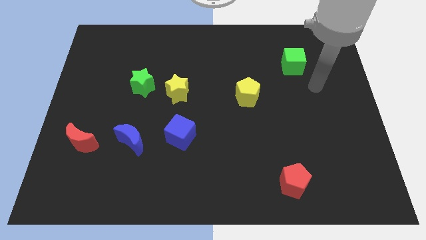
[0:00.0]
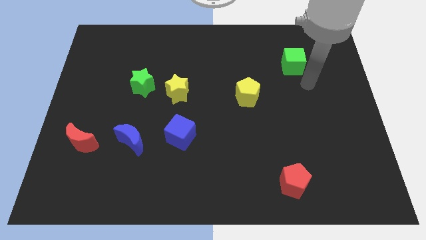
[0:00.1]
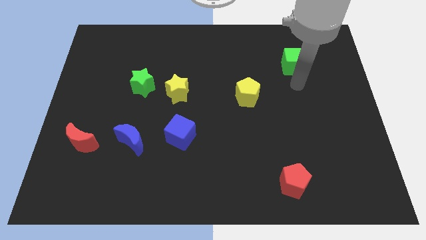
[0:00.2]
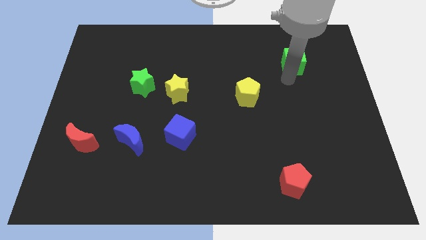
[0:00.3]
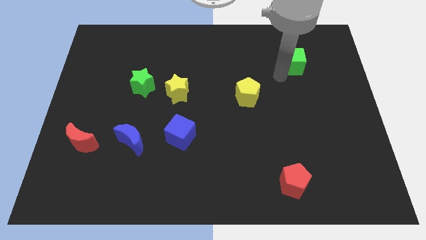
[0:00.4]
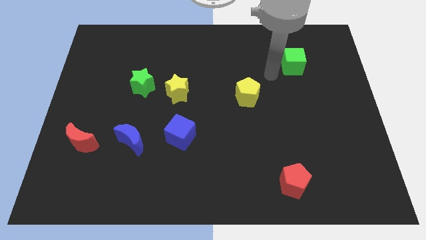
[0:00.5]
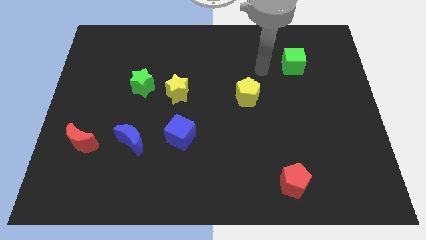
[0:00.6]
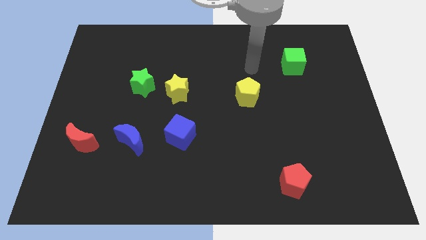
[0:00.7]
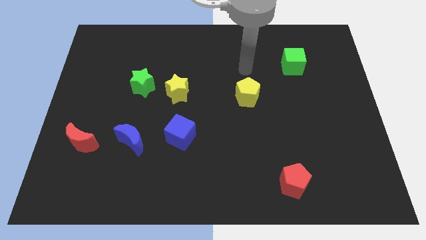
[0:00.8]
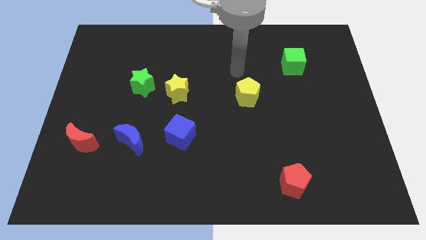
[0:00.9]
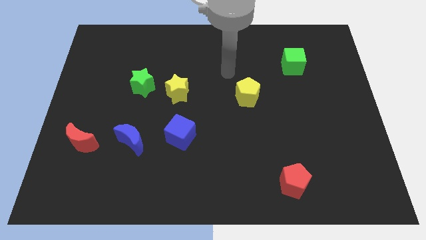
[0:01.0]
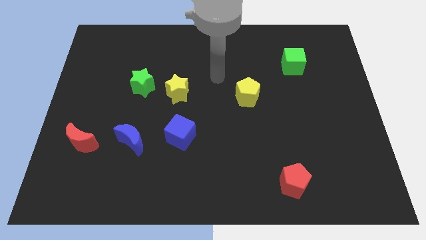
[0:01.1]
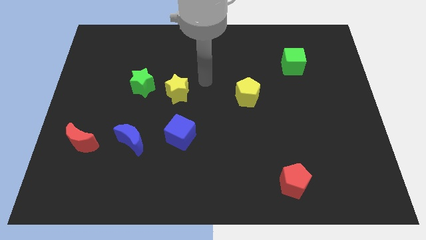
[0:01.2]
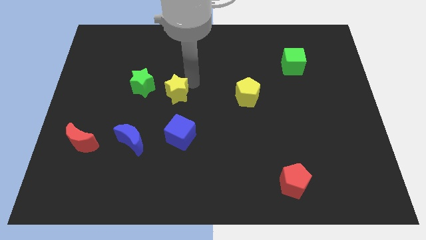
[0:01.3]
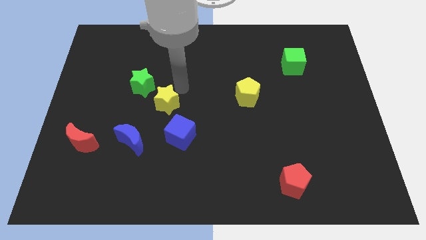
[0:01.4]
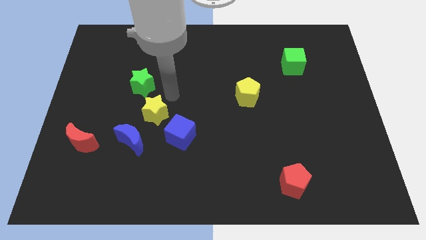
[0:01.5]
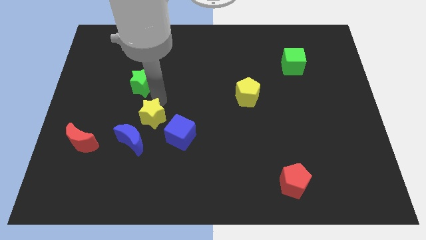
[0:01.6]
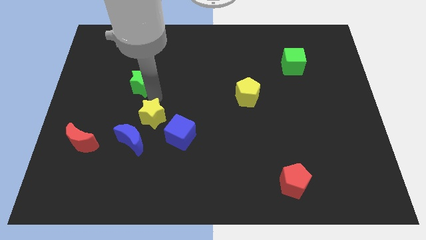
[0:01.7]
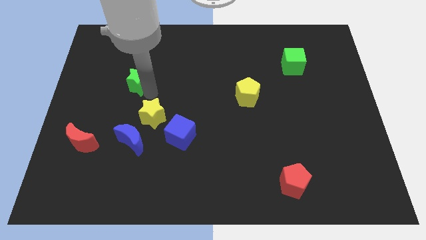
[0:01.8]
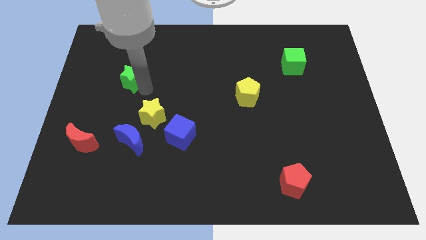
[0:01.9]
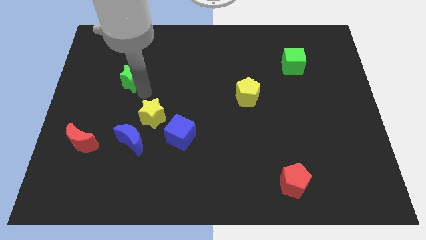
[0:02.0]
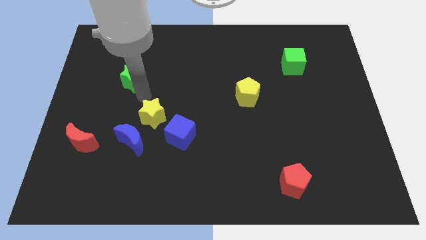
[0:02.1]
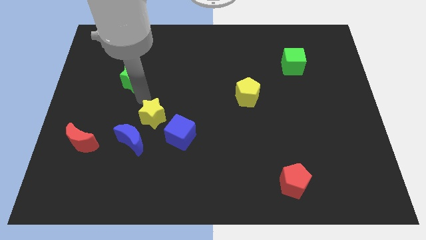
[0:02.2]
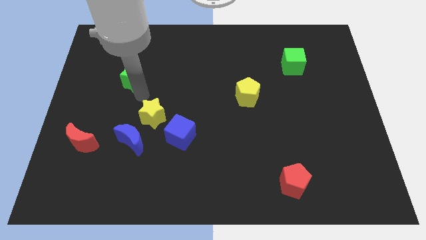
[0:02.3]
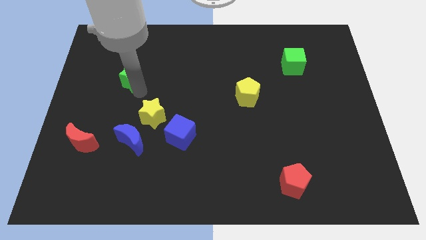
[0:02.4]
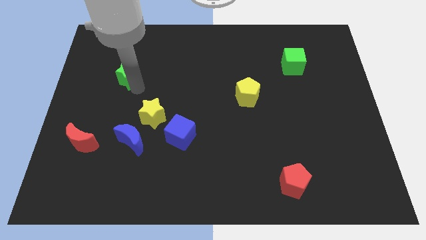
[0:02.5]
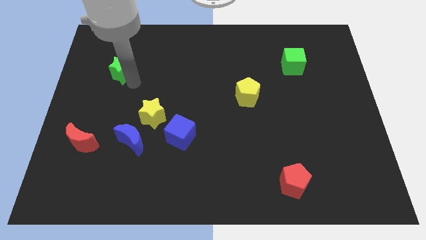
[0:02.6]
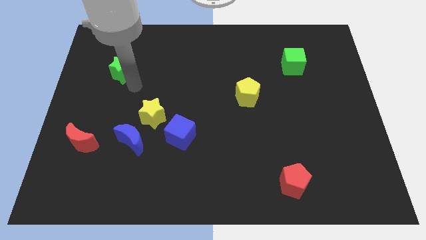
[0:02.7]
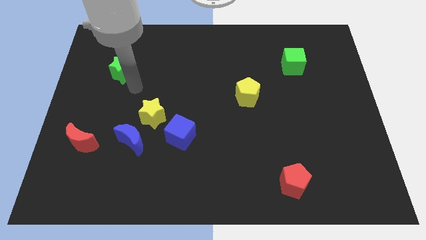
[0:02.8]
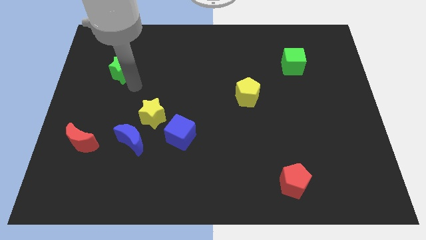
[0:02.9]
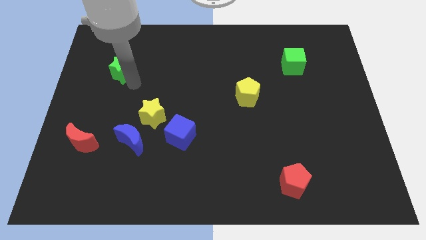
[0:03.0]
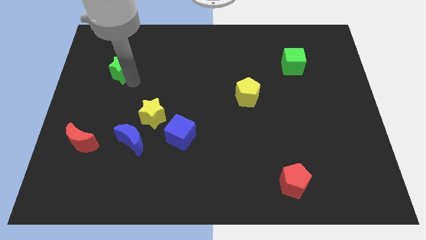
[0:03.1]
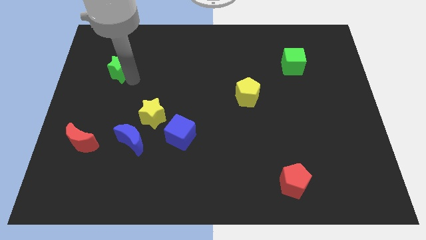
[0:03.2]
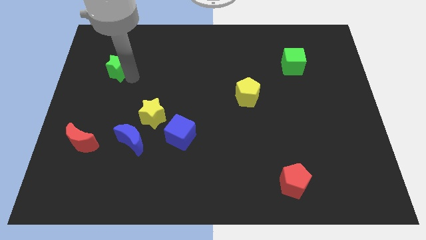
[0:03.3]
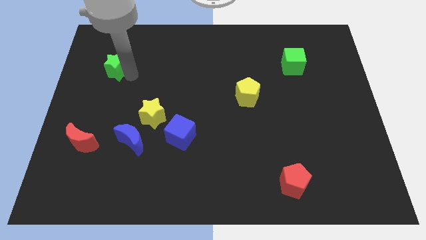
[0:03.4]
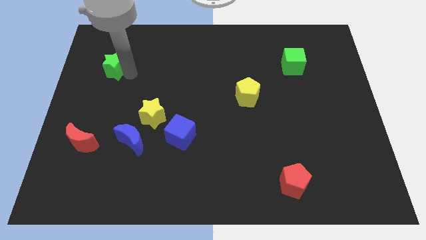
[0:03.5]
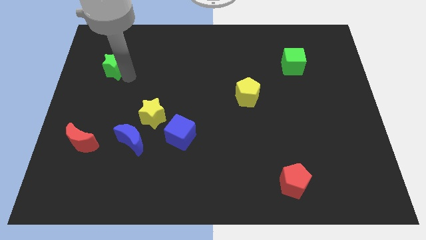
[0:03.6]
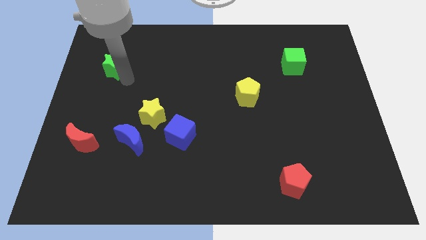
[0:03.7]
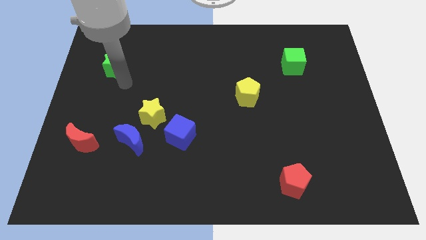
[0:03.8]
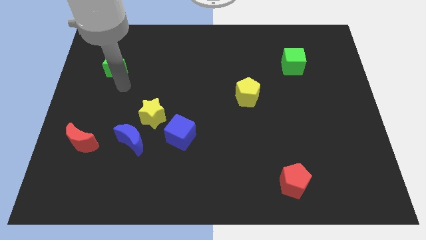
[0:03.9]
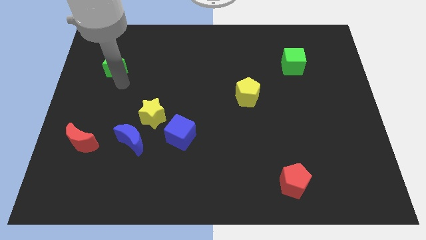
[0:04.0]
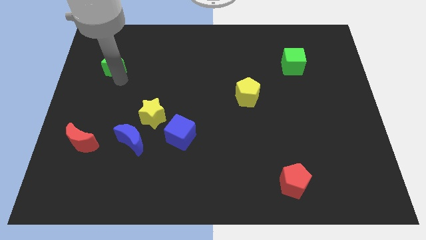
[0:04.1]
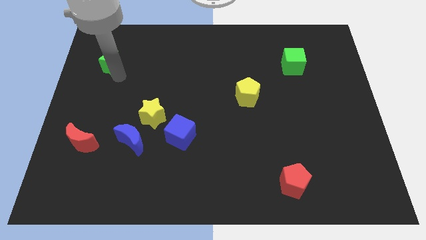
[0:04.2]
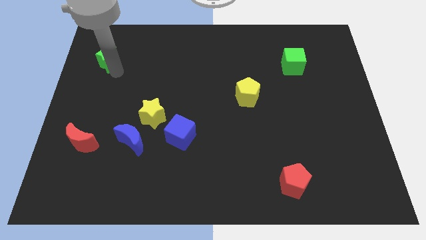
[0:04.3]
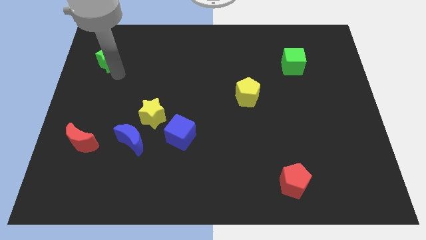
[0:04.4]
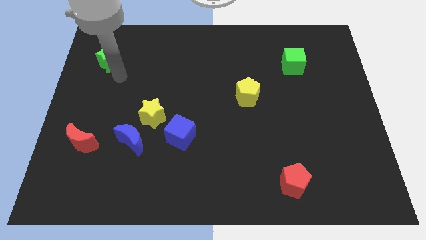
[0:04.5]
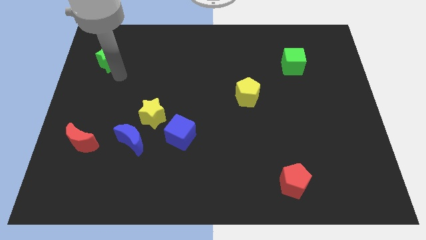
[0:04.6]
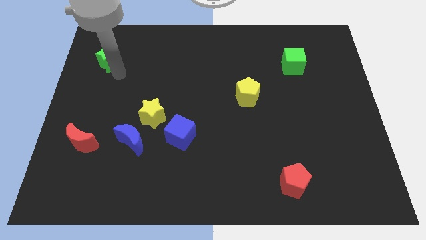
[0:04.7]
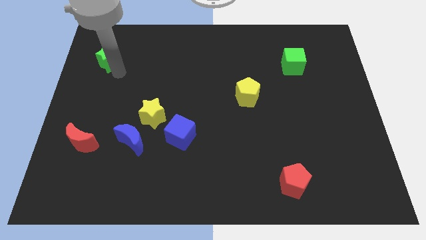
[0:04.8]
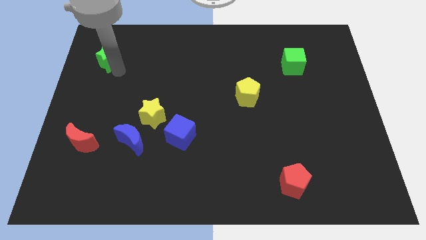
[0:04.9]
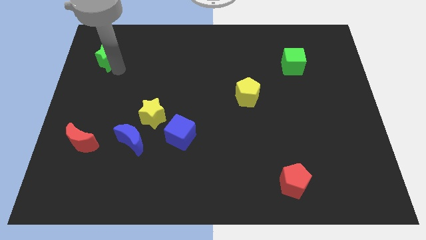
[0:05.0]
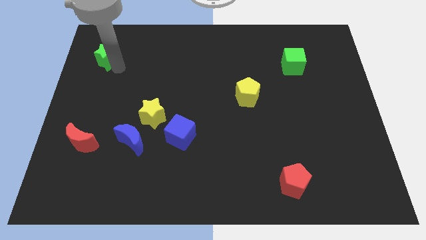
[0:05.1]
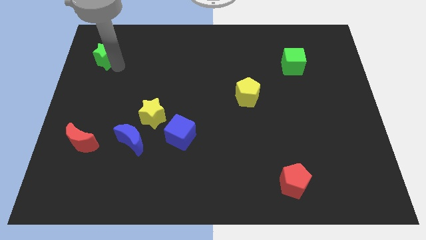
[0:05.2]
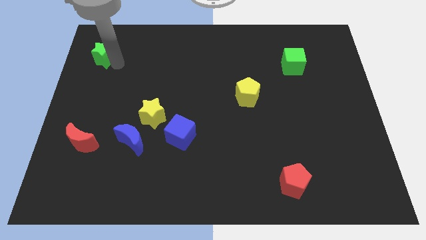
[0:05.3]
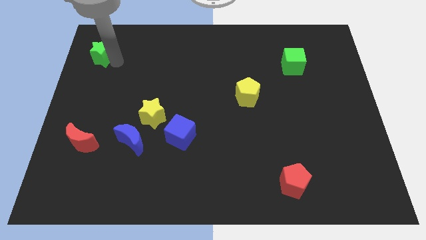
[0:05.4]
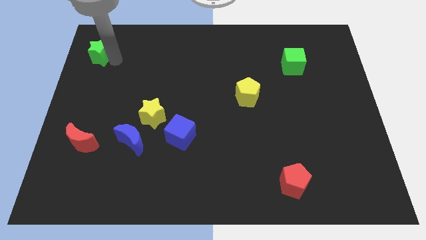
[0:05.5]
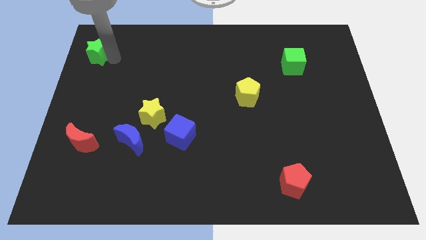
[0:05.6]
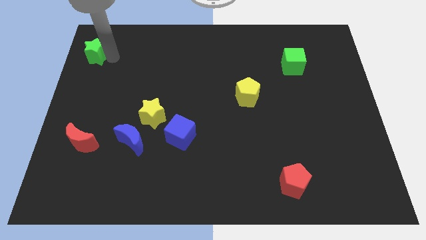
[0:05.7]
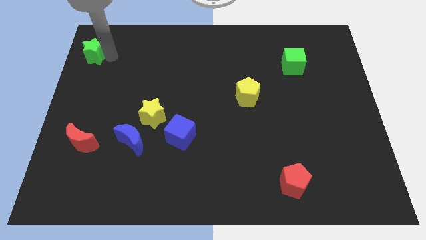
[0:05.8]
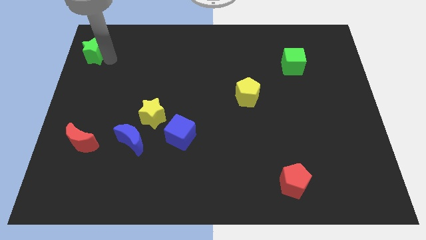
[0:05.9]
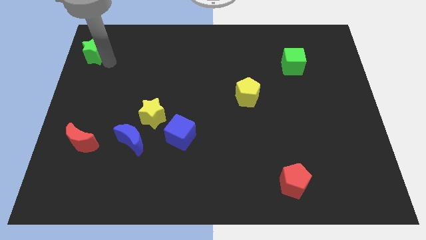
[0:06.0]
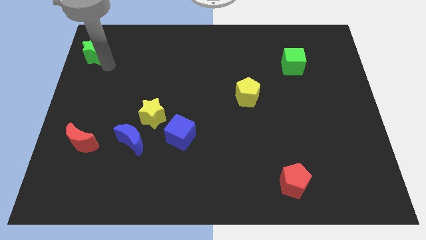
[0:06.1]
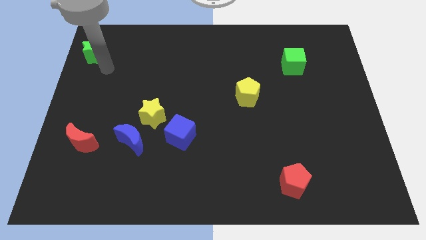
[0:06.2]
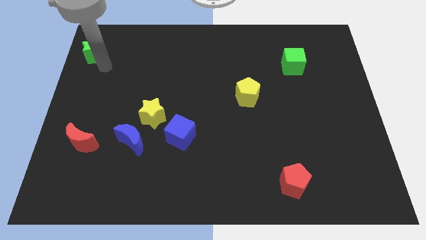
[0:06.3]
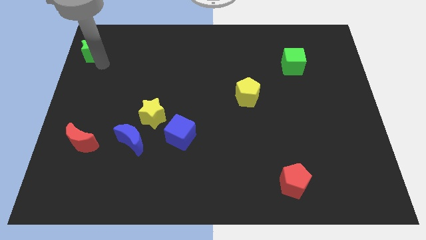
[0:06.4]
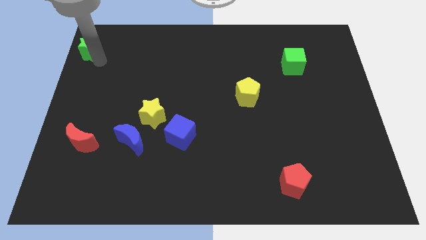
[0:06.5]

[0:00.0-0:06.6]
move the green star to the top left
